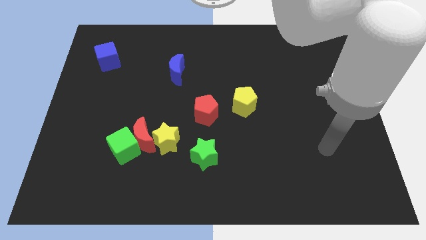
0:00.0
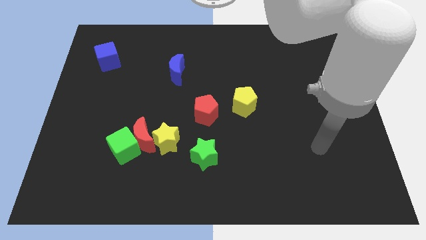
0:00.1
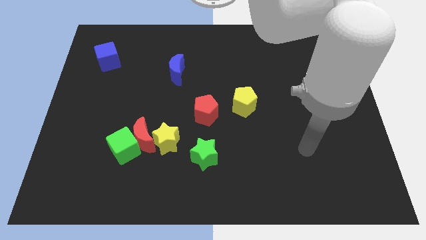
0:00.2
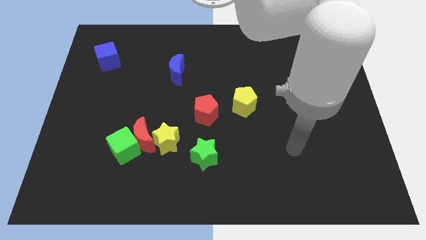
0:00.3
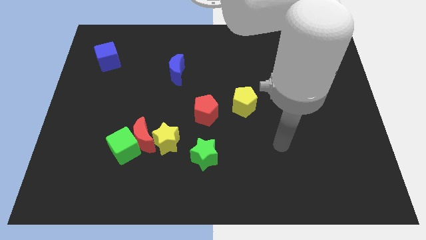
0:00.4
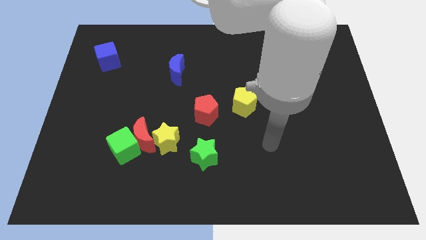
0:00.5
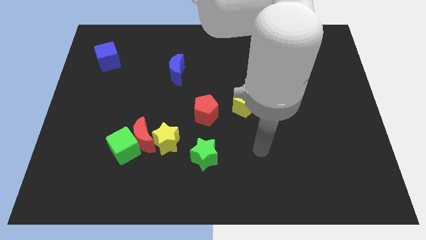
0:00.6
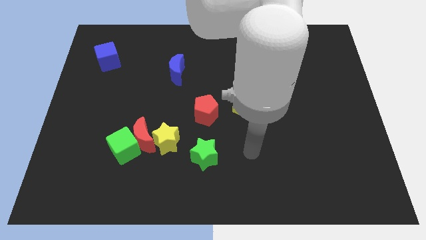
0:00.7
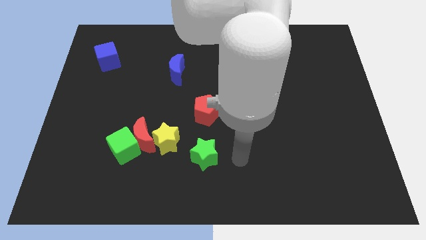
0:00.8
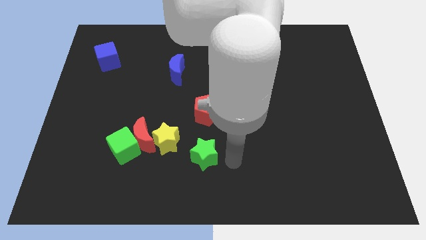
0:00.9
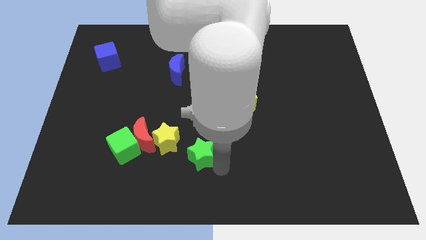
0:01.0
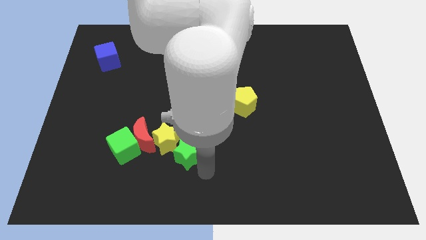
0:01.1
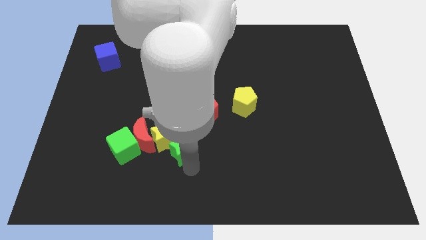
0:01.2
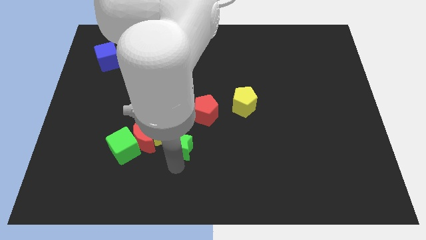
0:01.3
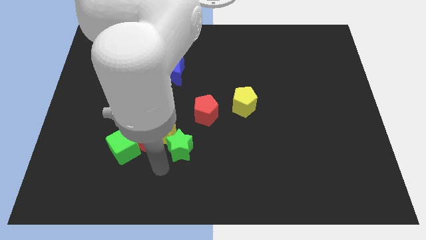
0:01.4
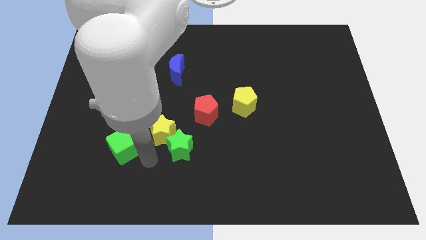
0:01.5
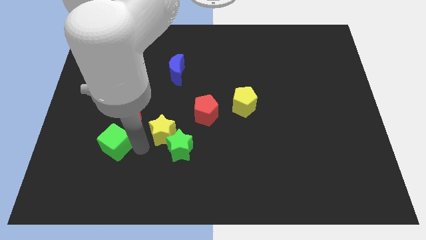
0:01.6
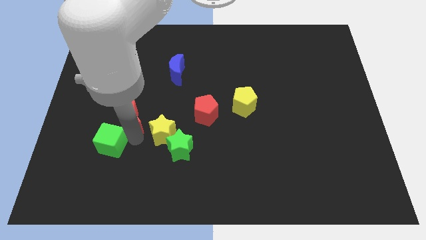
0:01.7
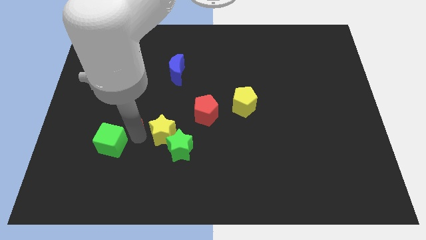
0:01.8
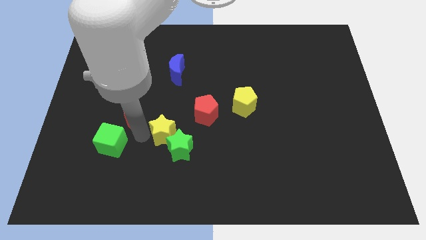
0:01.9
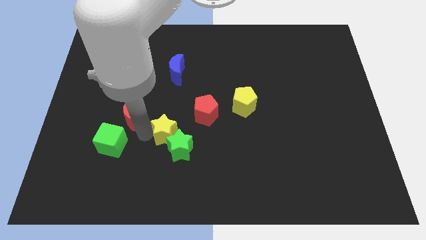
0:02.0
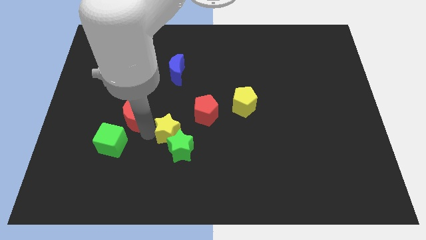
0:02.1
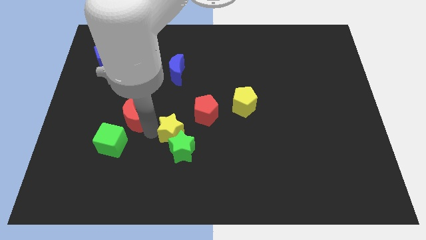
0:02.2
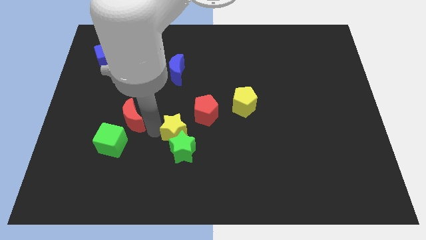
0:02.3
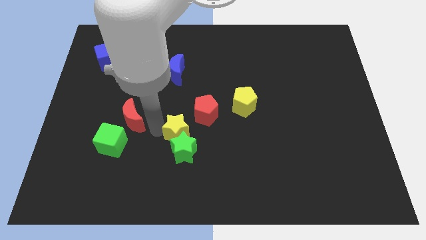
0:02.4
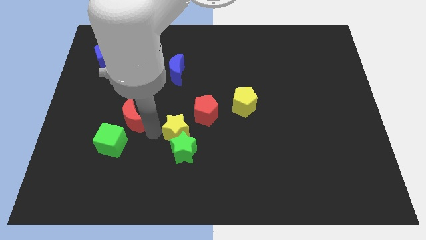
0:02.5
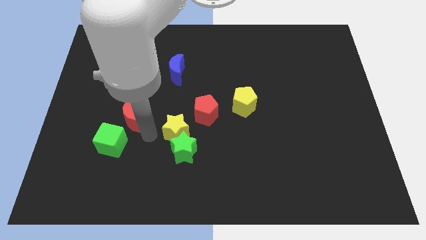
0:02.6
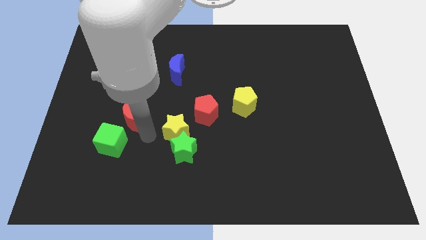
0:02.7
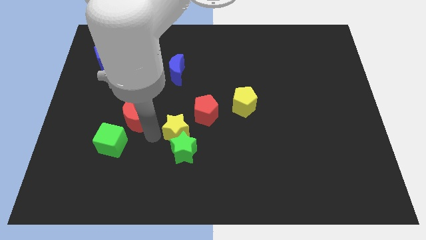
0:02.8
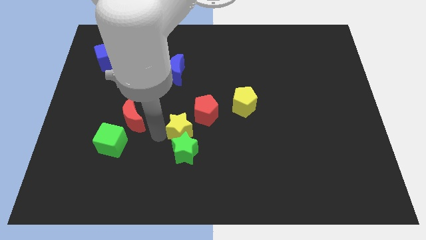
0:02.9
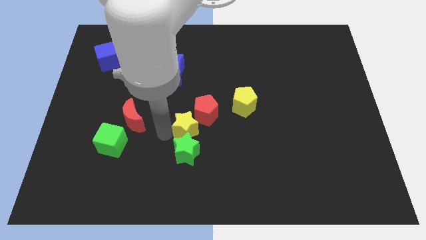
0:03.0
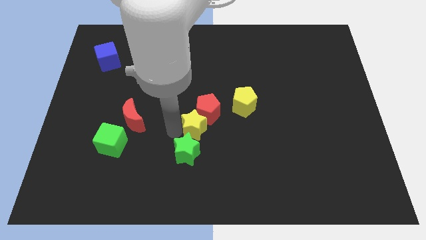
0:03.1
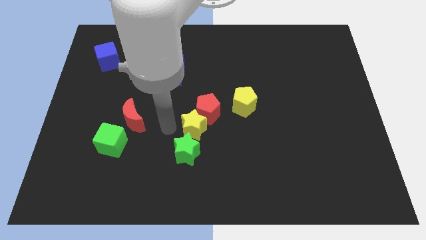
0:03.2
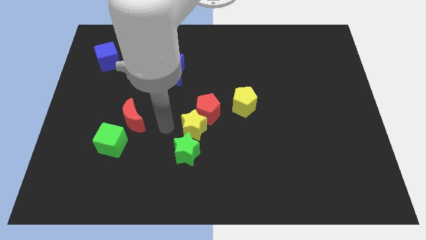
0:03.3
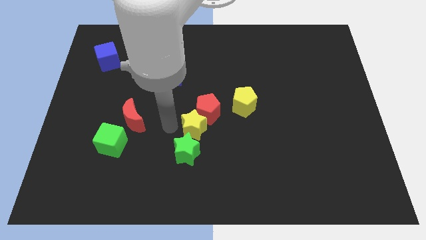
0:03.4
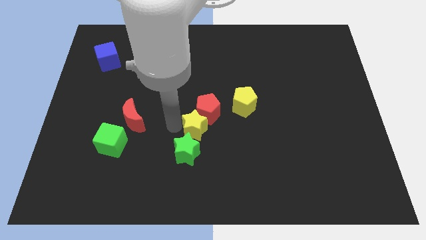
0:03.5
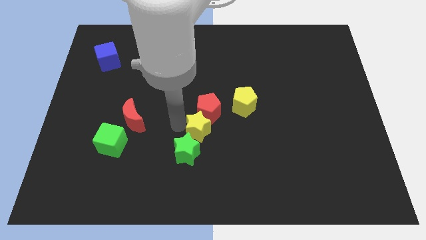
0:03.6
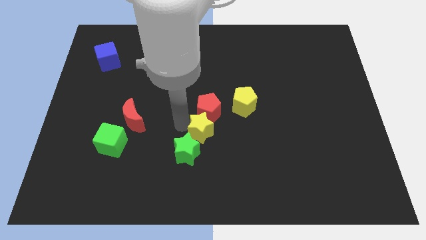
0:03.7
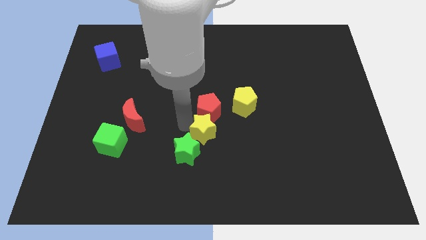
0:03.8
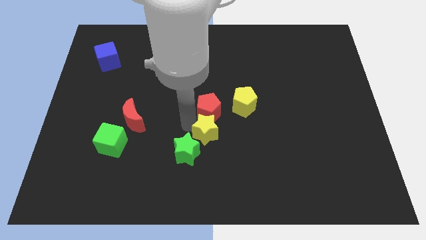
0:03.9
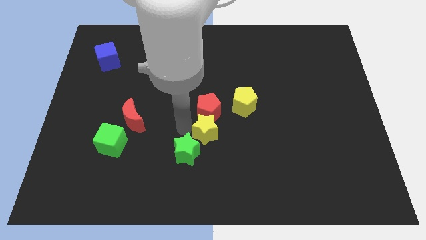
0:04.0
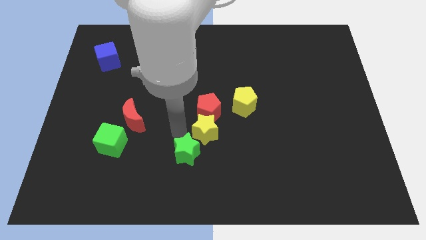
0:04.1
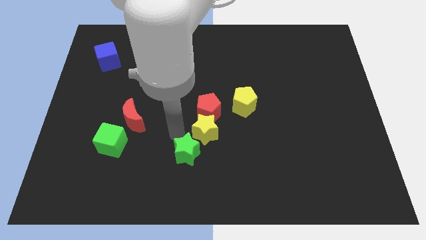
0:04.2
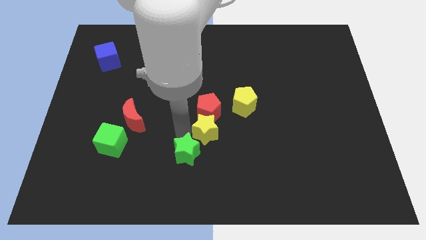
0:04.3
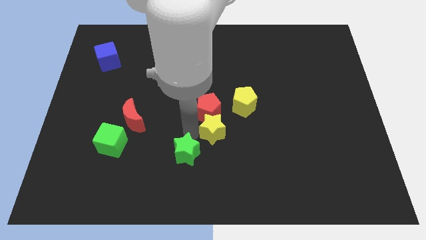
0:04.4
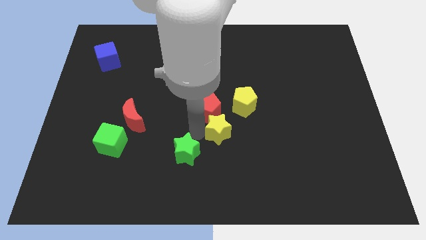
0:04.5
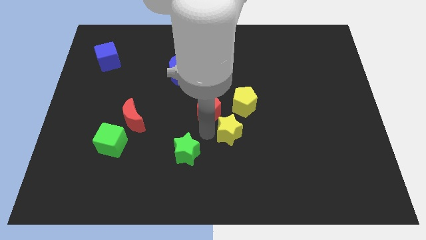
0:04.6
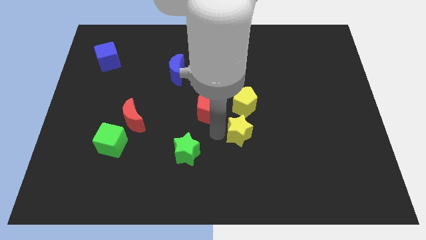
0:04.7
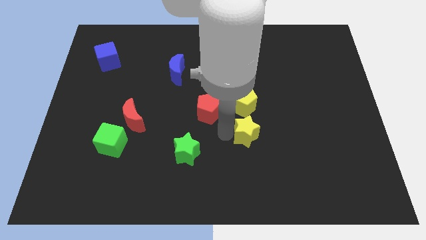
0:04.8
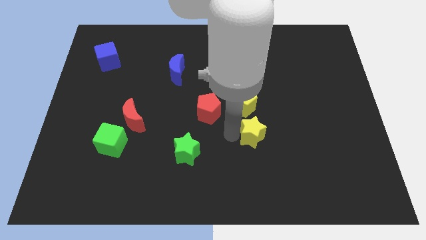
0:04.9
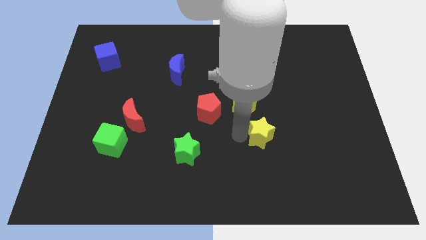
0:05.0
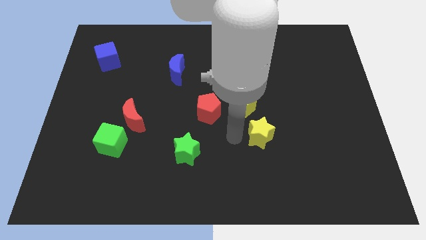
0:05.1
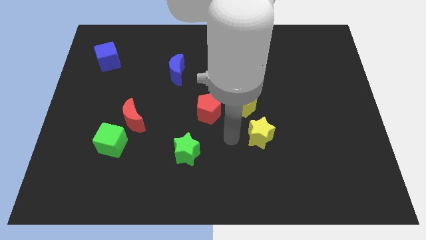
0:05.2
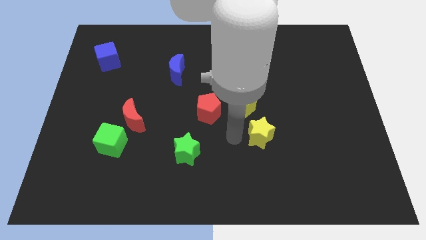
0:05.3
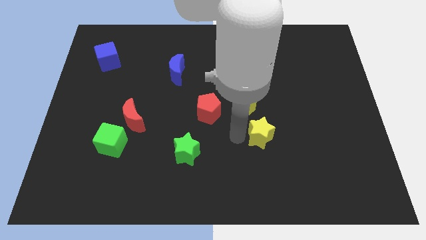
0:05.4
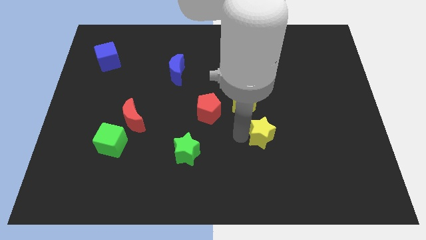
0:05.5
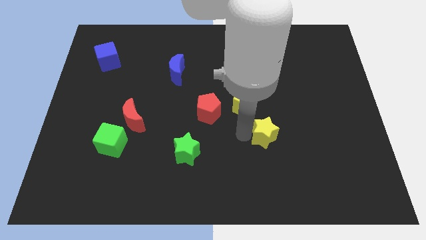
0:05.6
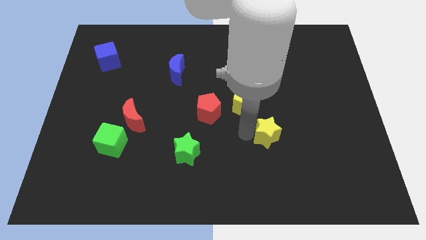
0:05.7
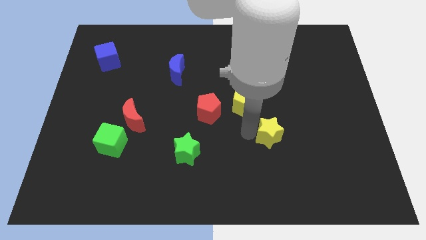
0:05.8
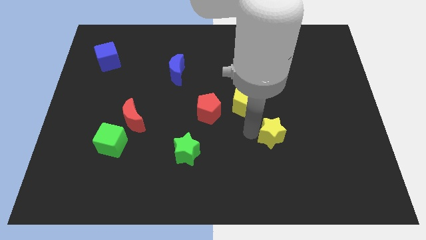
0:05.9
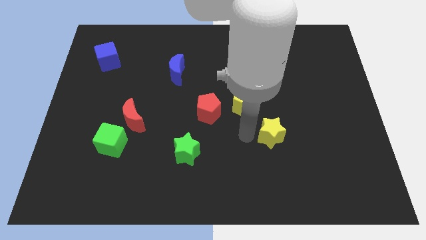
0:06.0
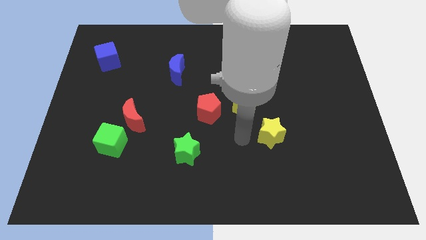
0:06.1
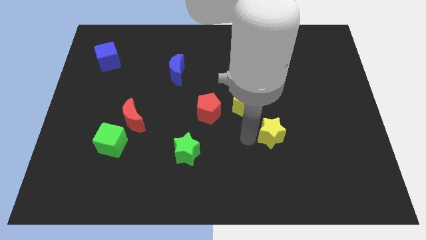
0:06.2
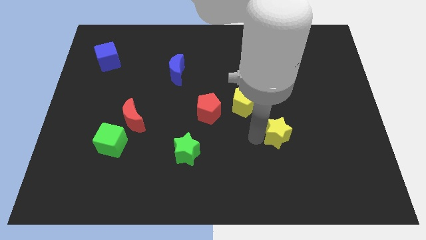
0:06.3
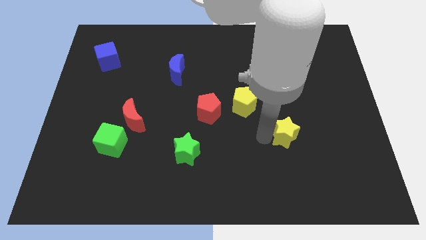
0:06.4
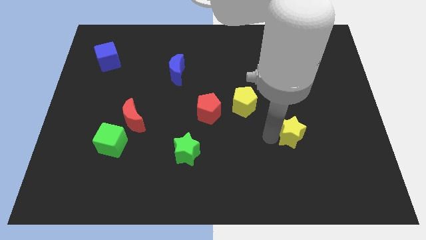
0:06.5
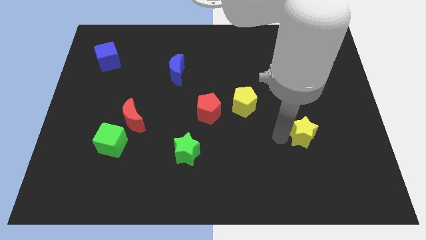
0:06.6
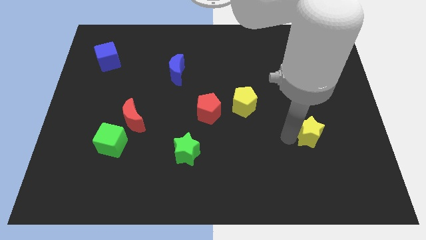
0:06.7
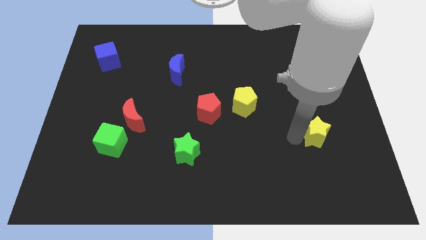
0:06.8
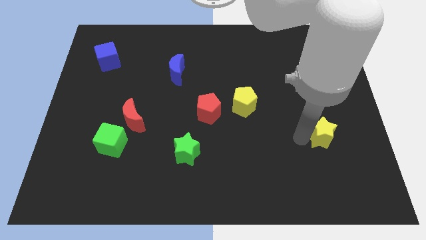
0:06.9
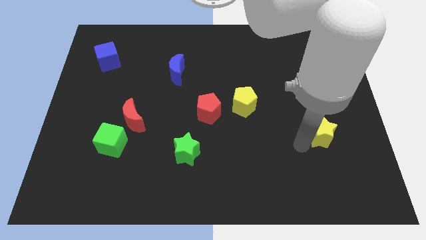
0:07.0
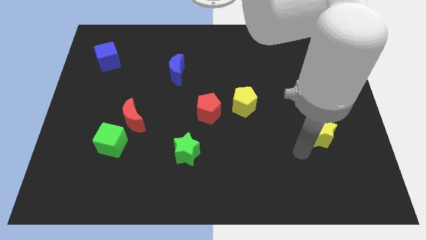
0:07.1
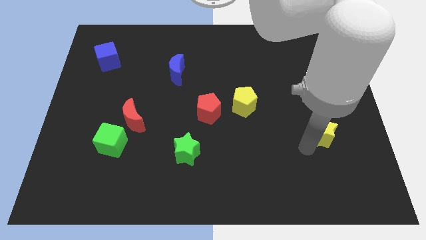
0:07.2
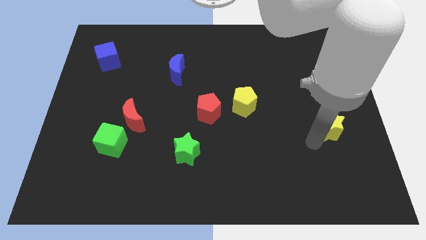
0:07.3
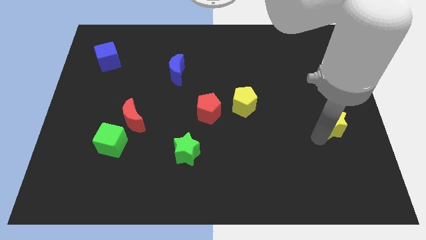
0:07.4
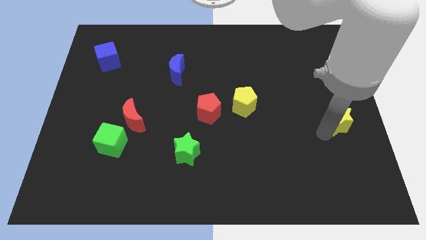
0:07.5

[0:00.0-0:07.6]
put the yellow star to the right side of the board
